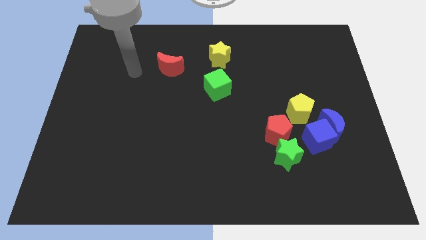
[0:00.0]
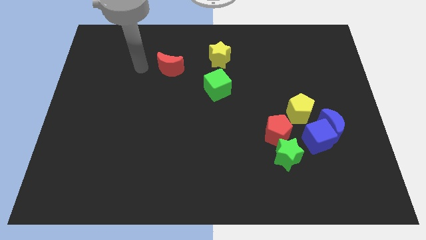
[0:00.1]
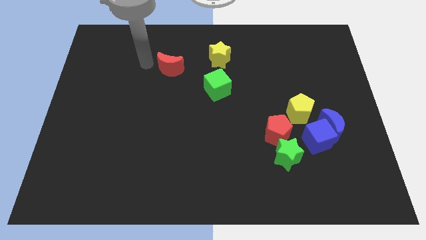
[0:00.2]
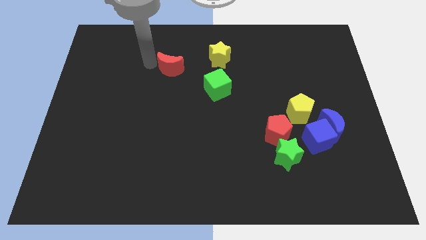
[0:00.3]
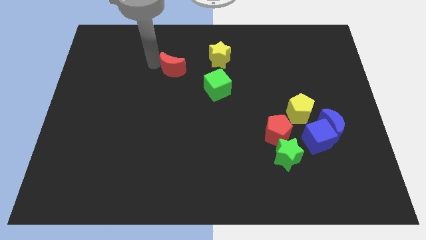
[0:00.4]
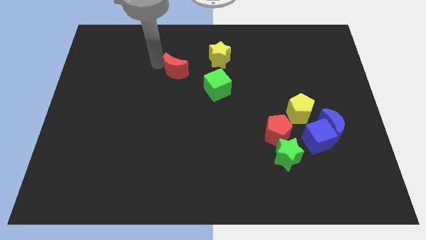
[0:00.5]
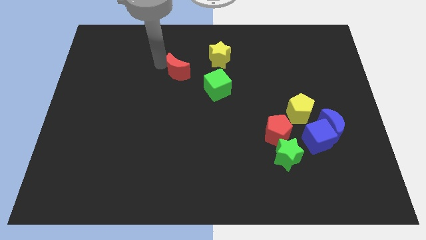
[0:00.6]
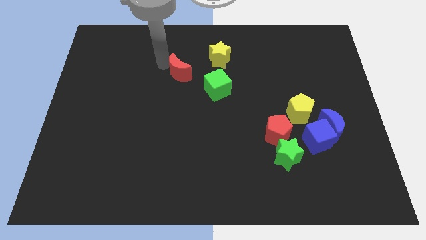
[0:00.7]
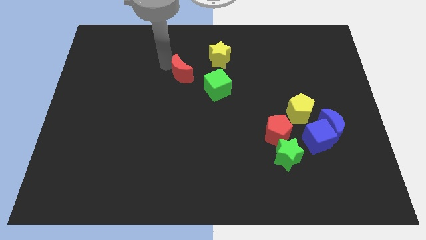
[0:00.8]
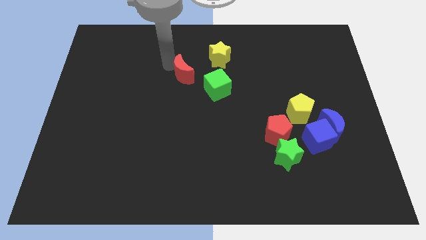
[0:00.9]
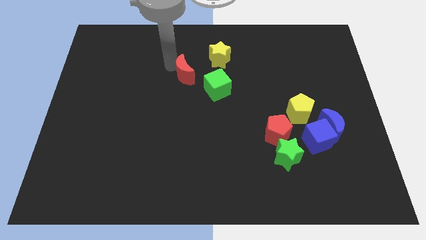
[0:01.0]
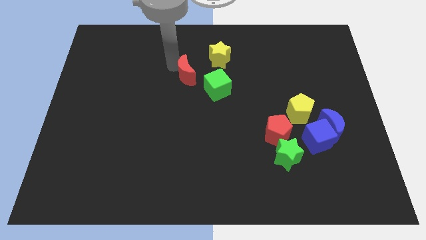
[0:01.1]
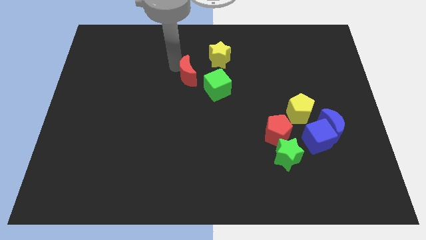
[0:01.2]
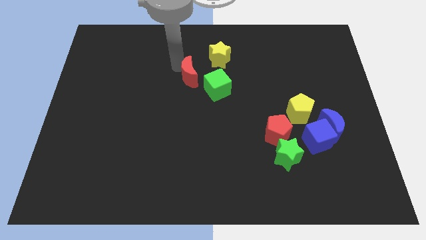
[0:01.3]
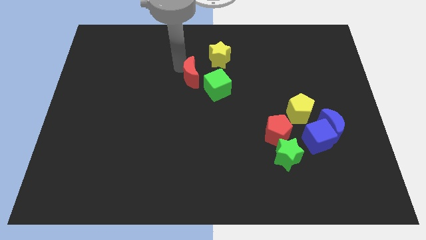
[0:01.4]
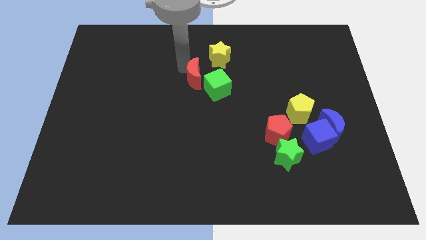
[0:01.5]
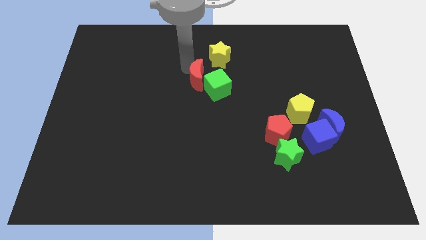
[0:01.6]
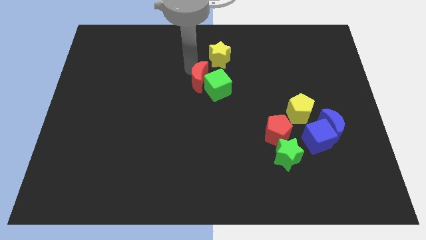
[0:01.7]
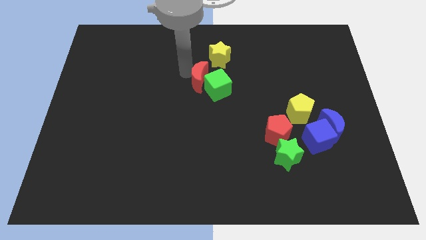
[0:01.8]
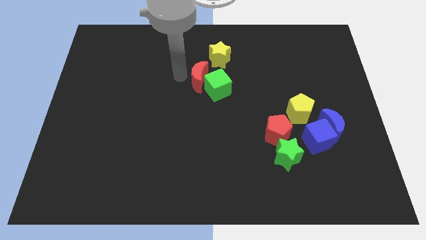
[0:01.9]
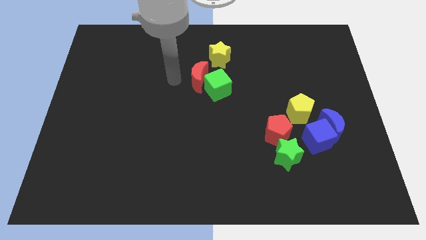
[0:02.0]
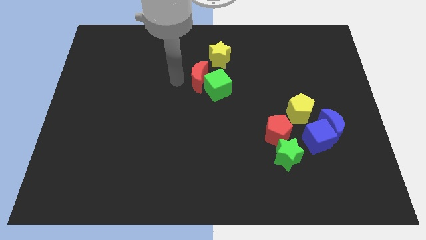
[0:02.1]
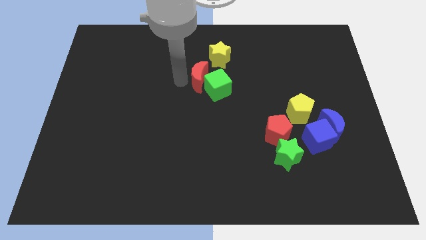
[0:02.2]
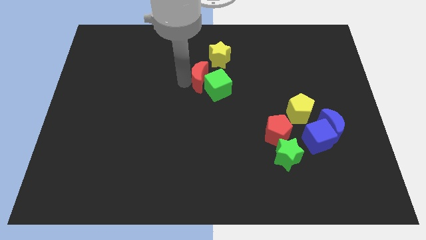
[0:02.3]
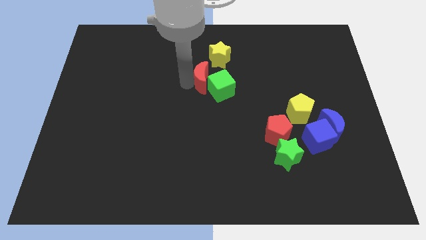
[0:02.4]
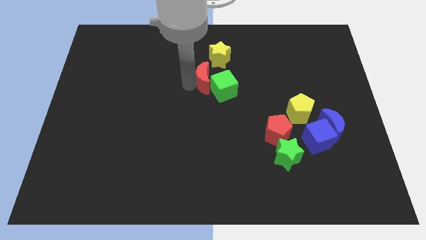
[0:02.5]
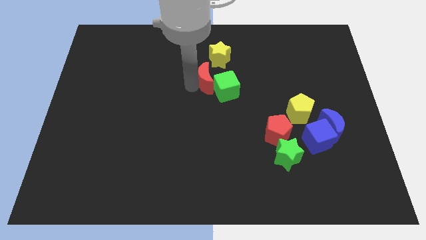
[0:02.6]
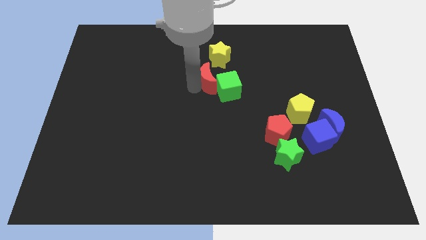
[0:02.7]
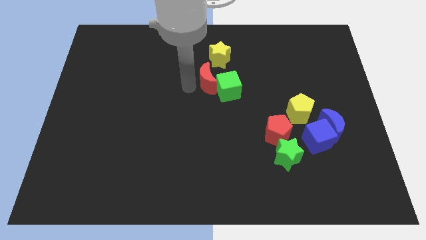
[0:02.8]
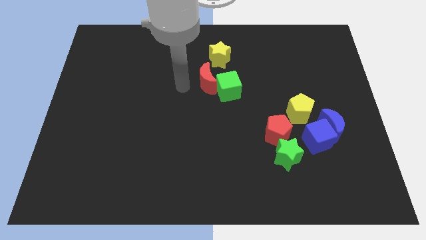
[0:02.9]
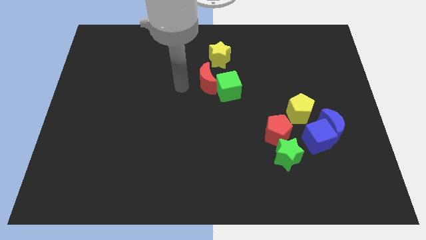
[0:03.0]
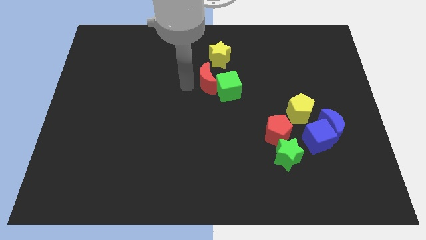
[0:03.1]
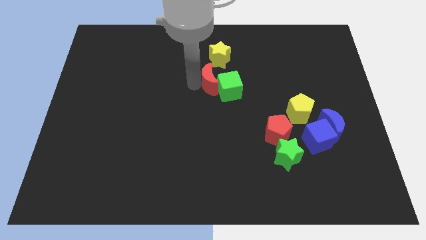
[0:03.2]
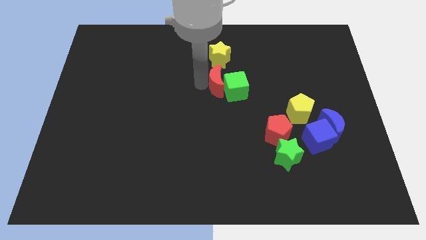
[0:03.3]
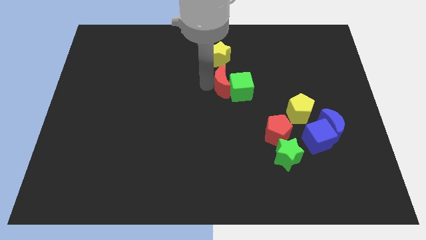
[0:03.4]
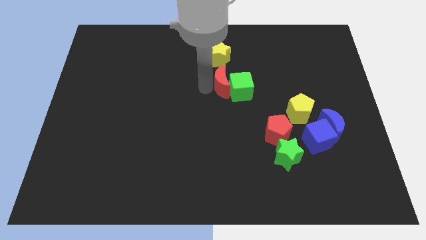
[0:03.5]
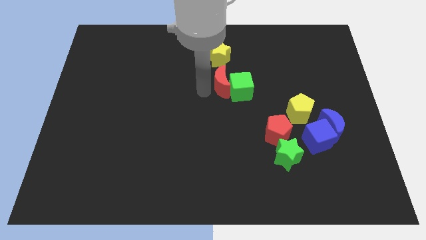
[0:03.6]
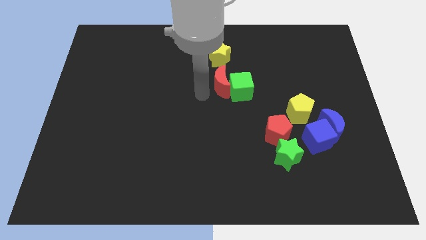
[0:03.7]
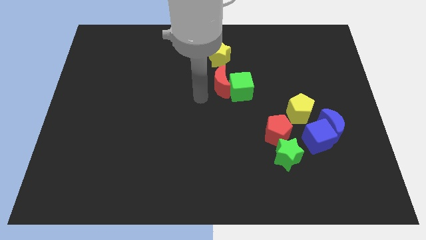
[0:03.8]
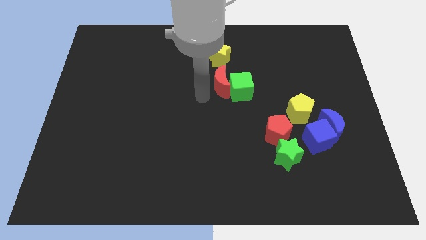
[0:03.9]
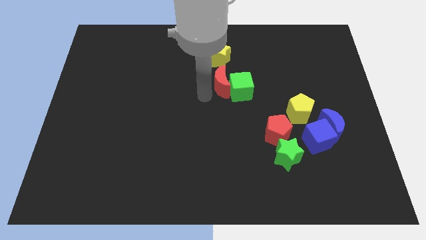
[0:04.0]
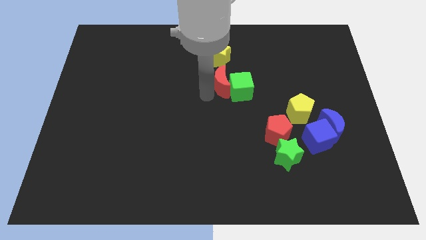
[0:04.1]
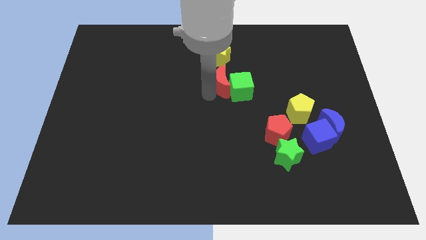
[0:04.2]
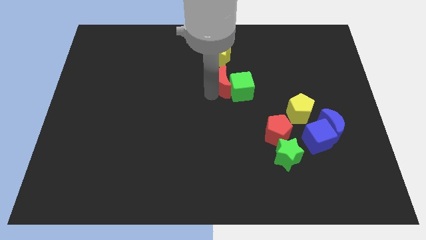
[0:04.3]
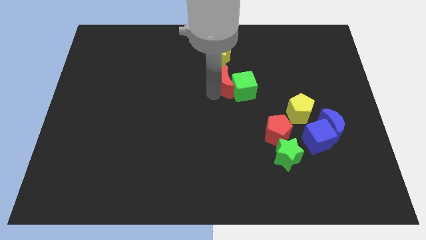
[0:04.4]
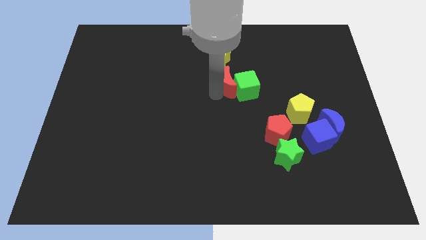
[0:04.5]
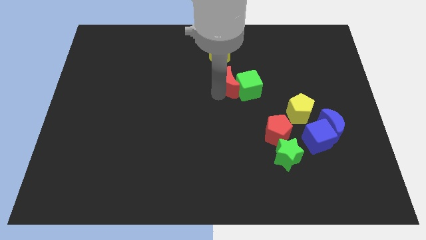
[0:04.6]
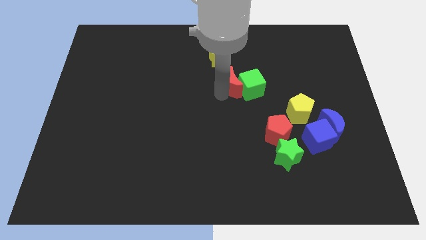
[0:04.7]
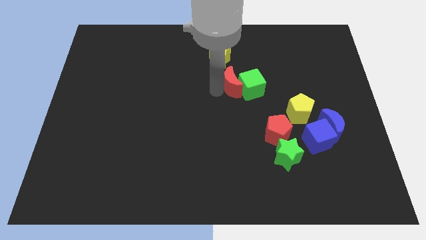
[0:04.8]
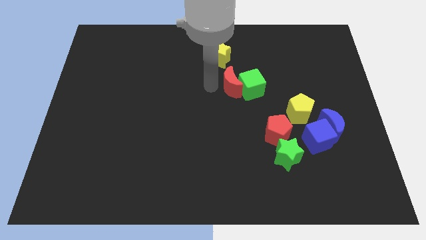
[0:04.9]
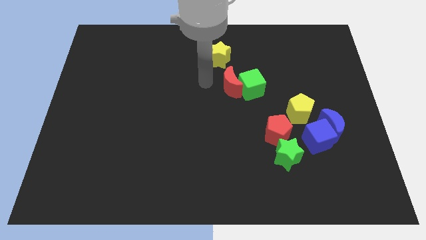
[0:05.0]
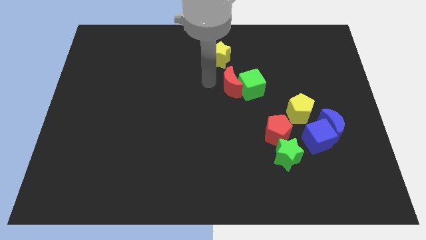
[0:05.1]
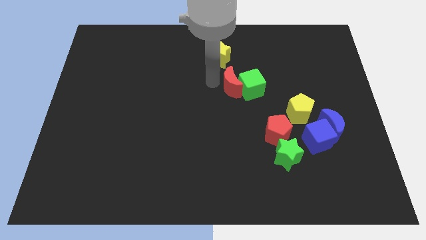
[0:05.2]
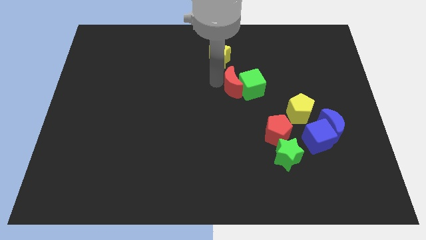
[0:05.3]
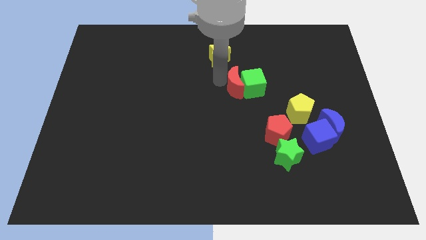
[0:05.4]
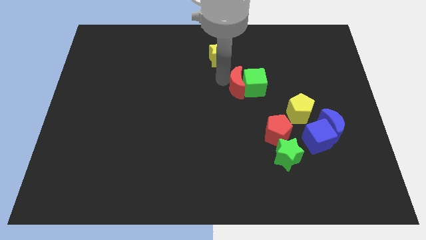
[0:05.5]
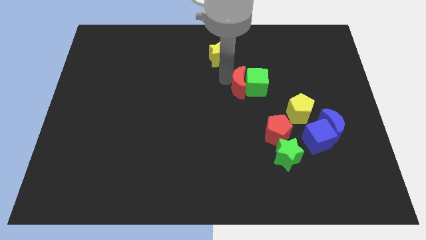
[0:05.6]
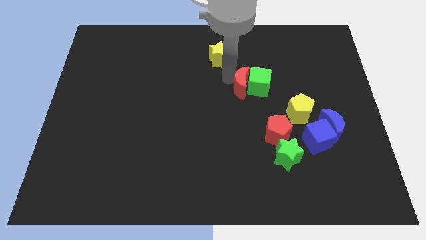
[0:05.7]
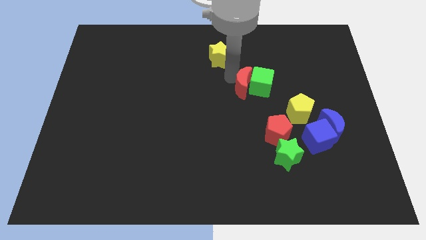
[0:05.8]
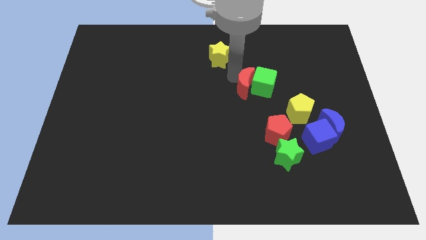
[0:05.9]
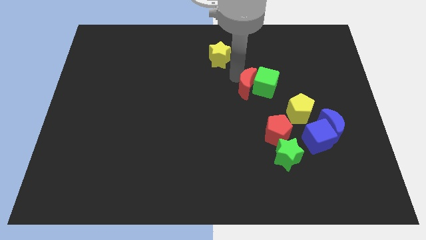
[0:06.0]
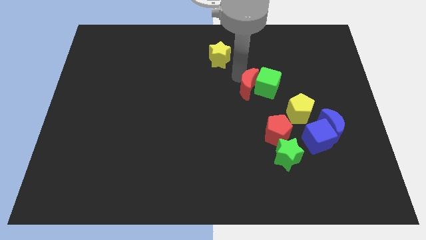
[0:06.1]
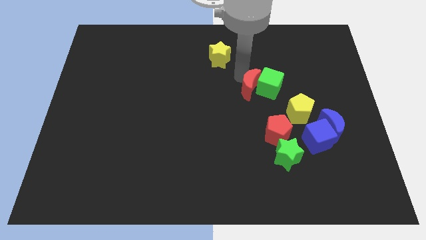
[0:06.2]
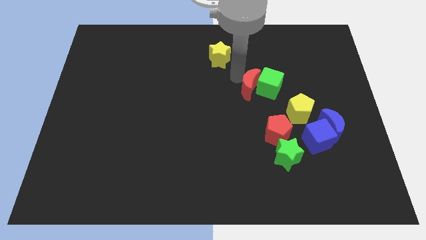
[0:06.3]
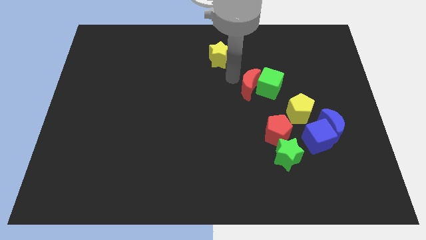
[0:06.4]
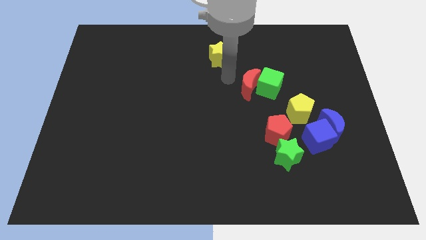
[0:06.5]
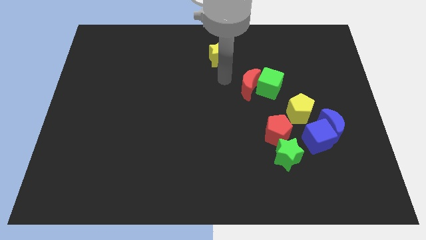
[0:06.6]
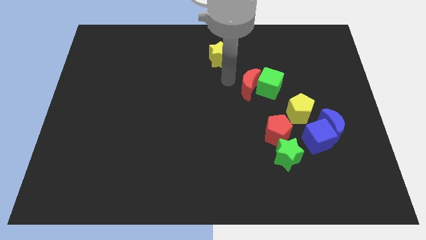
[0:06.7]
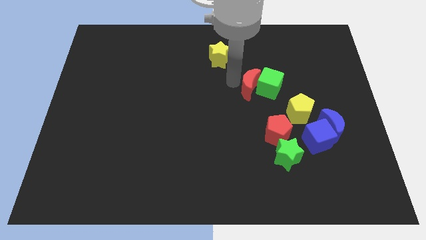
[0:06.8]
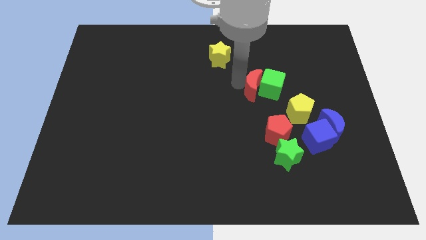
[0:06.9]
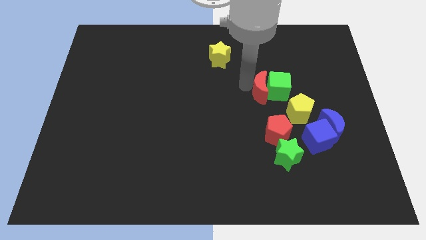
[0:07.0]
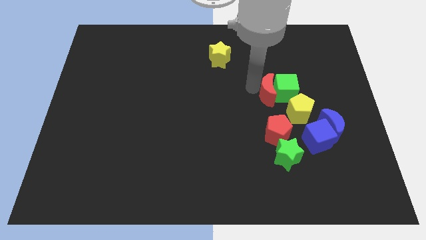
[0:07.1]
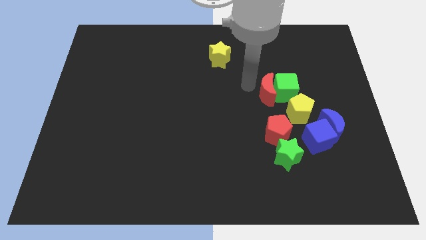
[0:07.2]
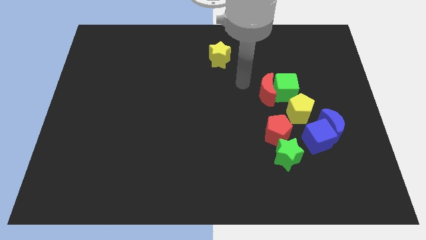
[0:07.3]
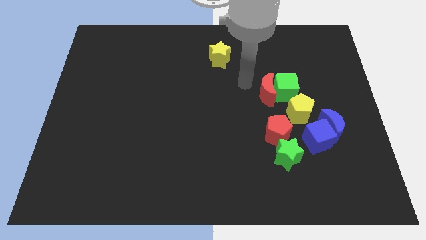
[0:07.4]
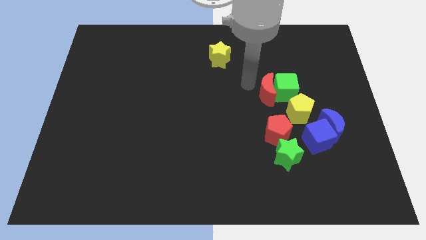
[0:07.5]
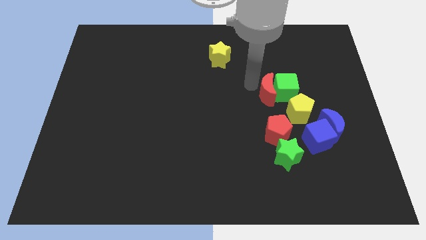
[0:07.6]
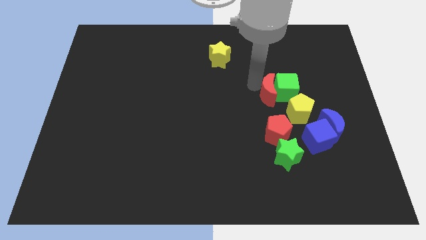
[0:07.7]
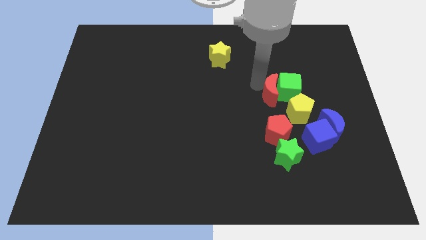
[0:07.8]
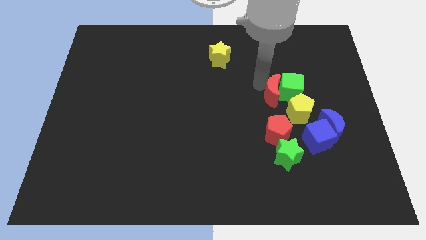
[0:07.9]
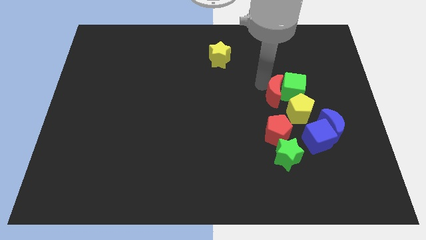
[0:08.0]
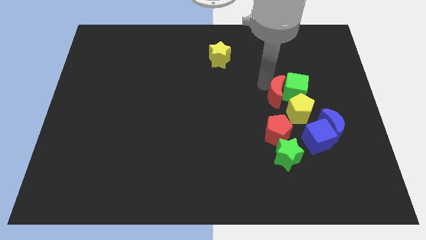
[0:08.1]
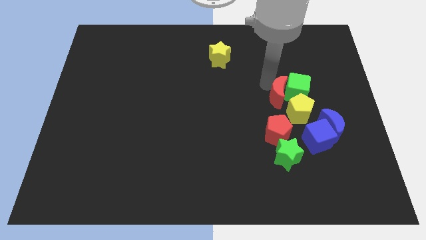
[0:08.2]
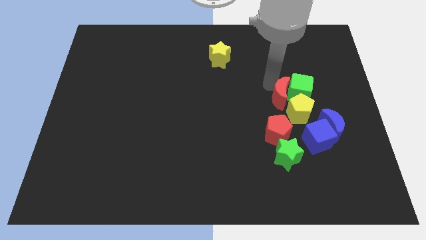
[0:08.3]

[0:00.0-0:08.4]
slide the red moon towards the yellow pentagon
